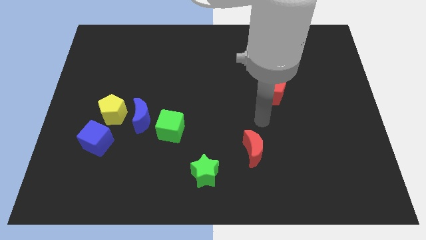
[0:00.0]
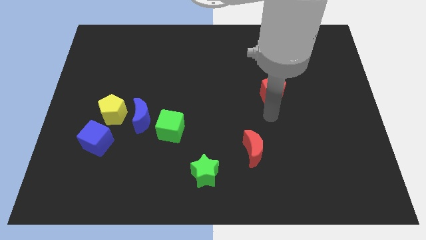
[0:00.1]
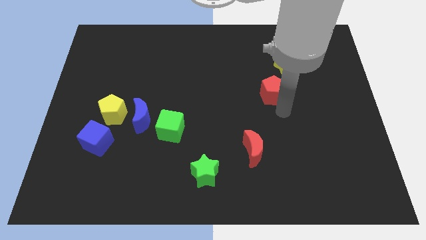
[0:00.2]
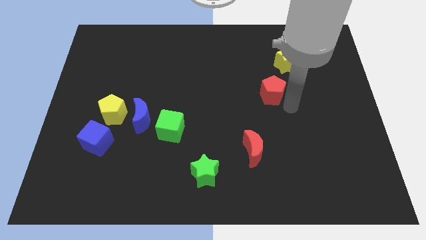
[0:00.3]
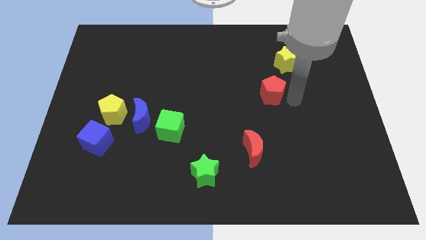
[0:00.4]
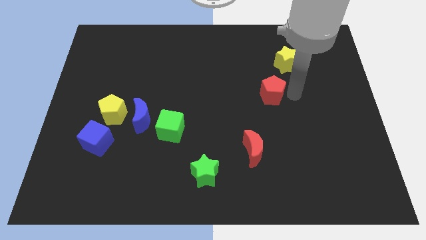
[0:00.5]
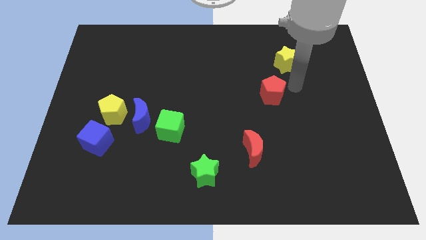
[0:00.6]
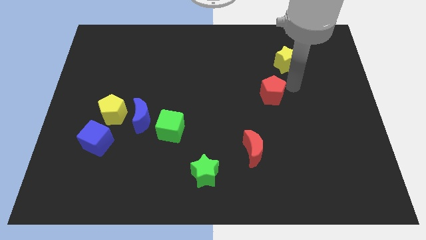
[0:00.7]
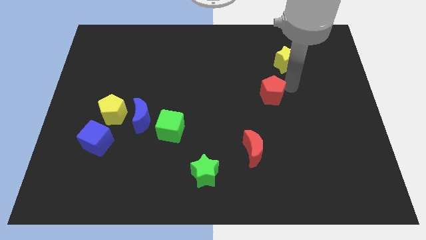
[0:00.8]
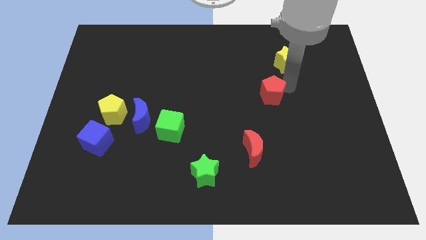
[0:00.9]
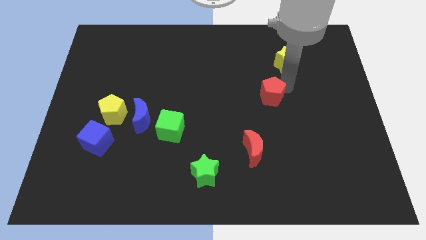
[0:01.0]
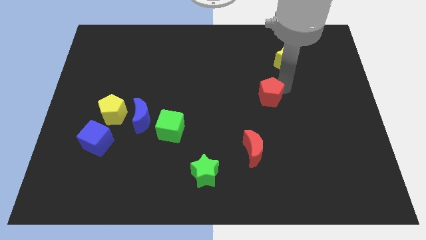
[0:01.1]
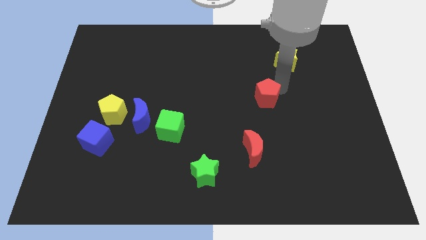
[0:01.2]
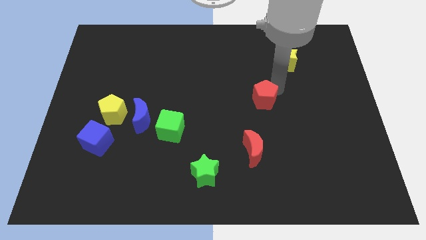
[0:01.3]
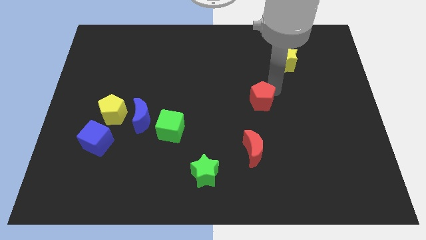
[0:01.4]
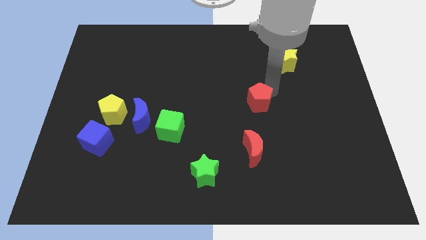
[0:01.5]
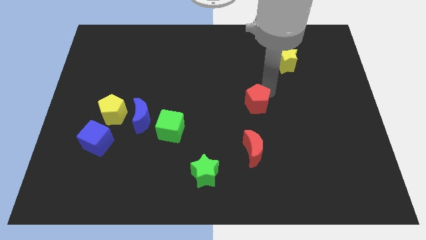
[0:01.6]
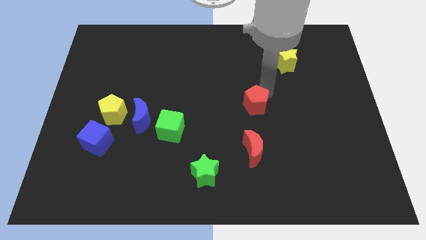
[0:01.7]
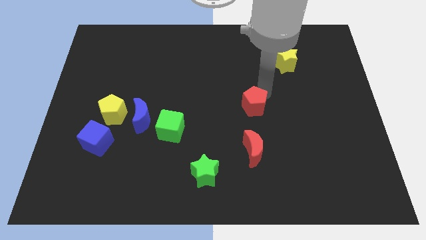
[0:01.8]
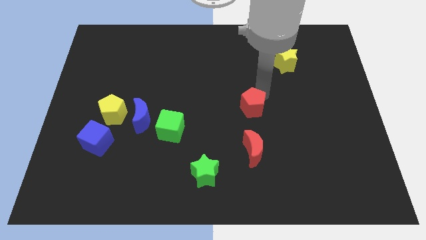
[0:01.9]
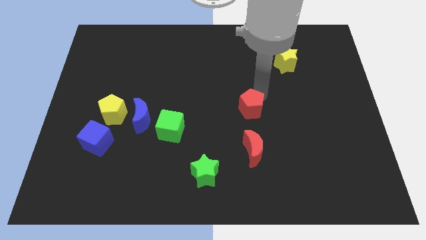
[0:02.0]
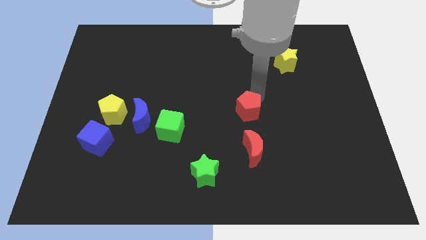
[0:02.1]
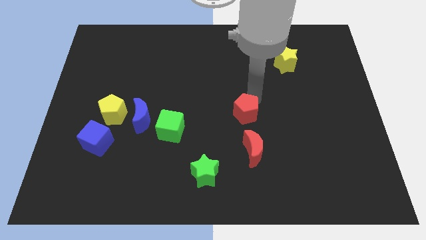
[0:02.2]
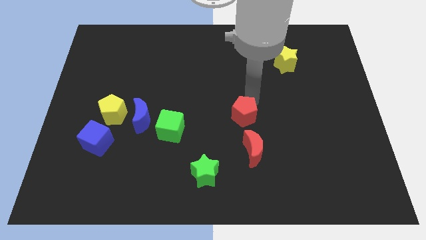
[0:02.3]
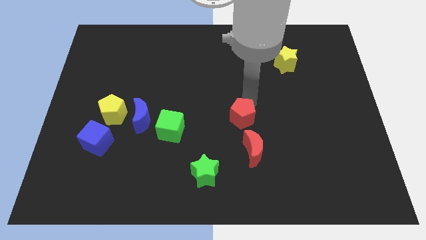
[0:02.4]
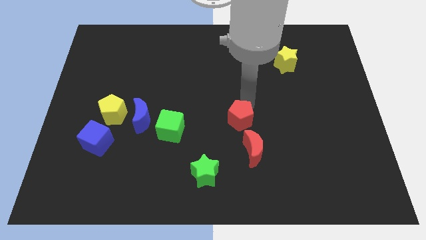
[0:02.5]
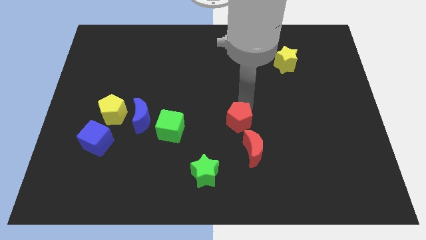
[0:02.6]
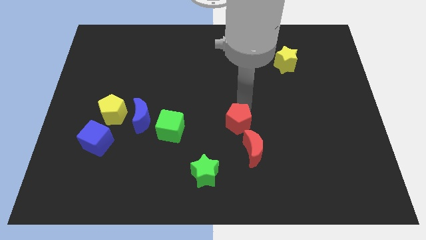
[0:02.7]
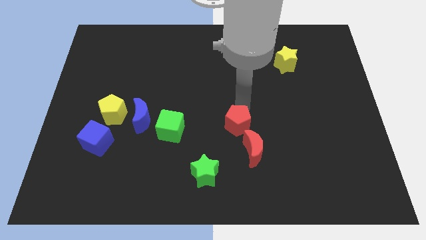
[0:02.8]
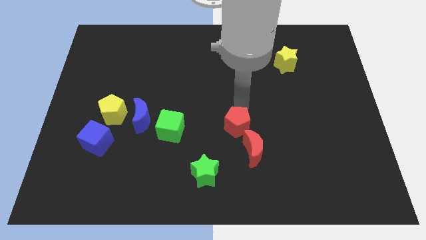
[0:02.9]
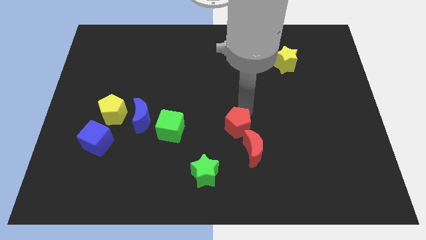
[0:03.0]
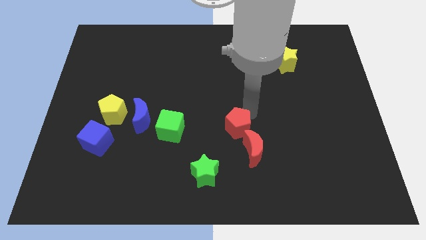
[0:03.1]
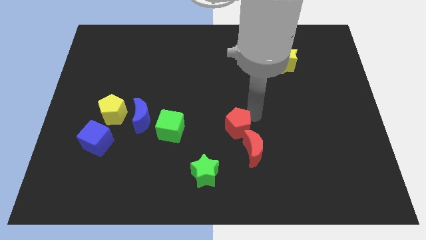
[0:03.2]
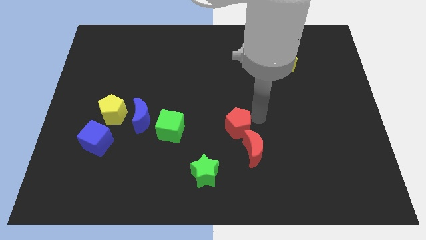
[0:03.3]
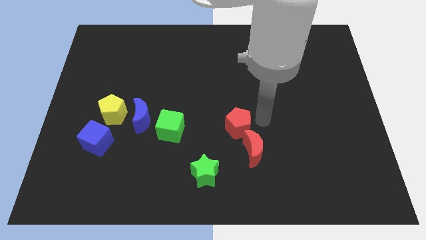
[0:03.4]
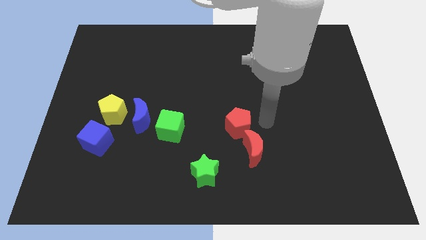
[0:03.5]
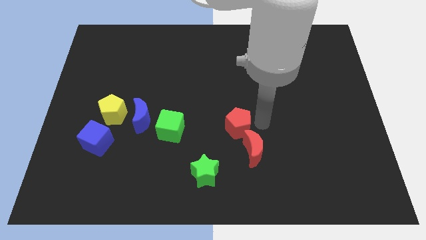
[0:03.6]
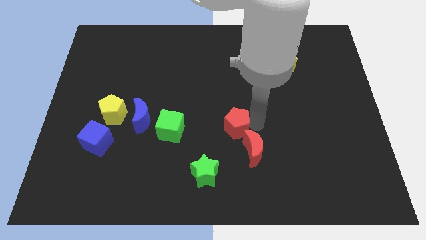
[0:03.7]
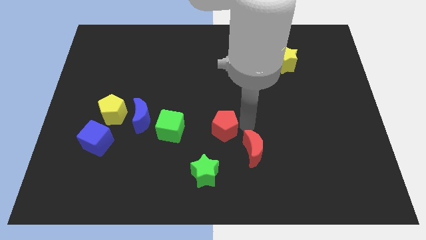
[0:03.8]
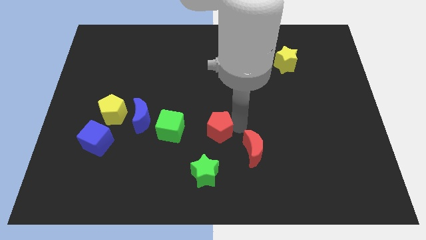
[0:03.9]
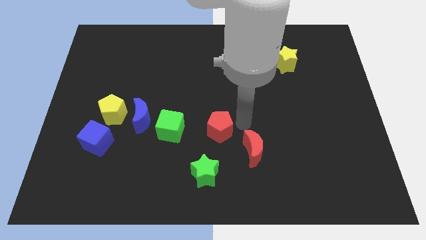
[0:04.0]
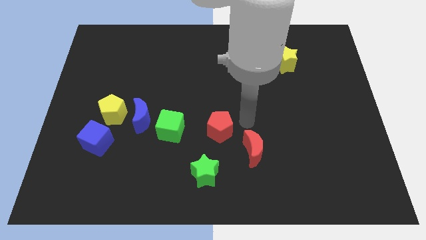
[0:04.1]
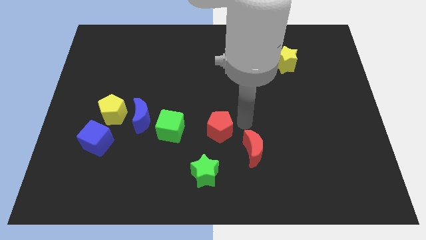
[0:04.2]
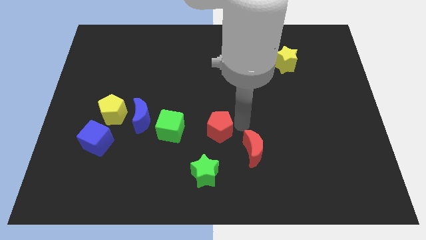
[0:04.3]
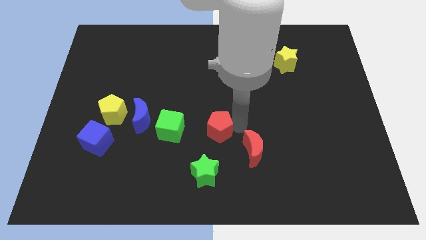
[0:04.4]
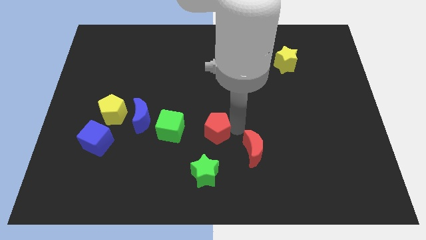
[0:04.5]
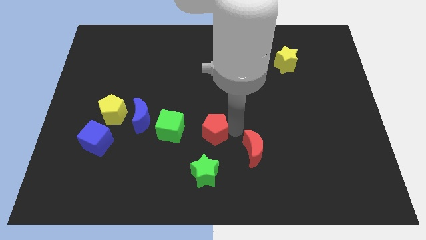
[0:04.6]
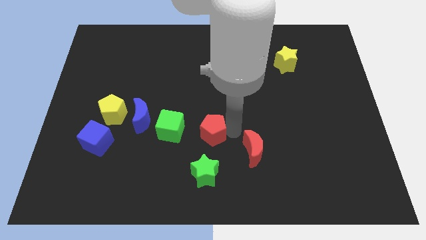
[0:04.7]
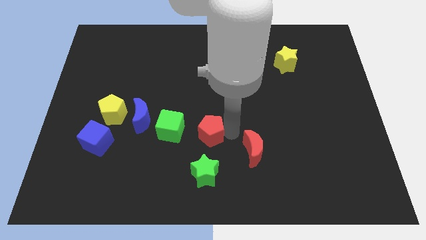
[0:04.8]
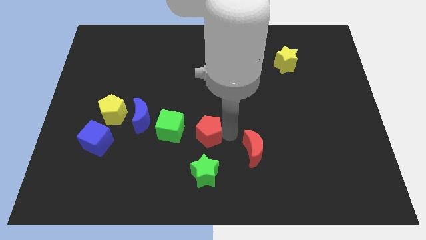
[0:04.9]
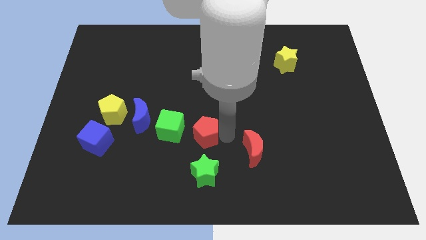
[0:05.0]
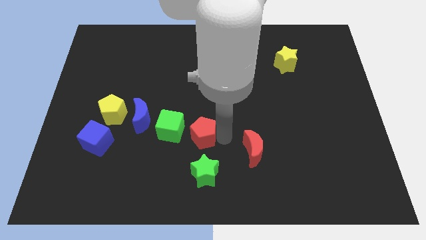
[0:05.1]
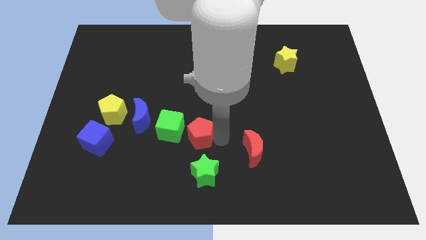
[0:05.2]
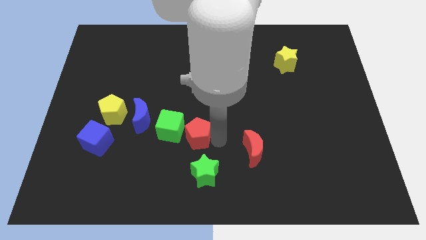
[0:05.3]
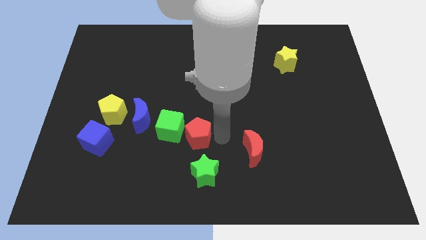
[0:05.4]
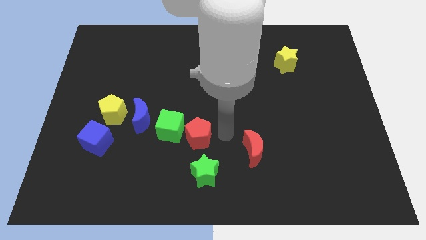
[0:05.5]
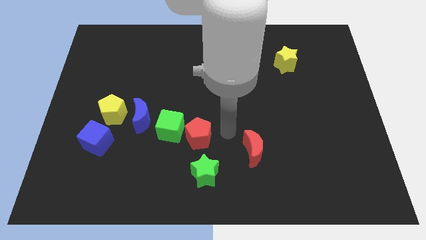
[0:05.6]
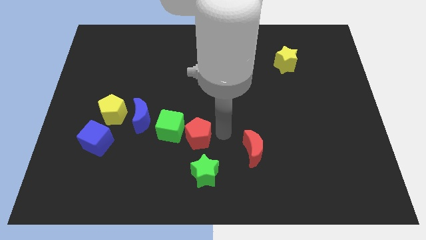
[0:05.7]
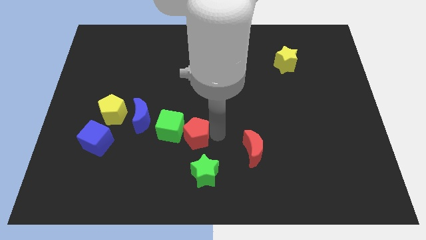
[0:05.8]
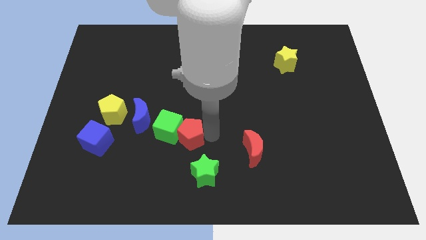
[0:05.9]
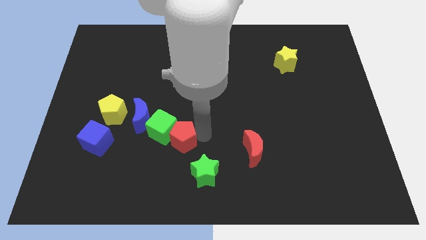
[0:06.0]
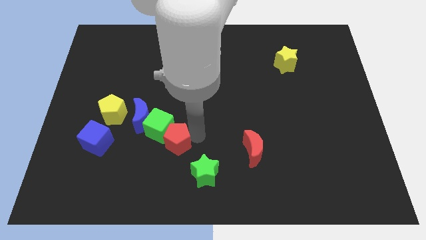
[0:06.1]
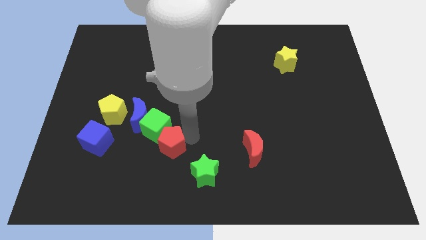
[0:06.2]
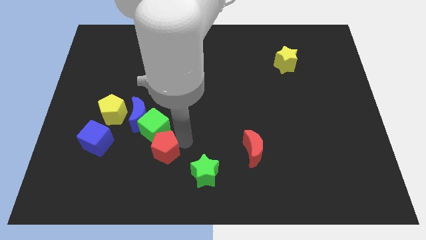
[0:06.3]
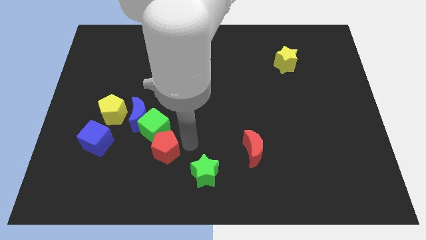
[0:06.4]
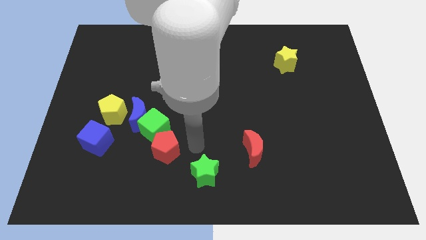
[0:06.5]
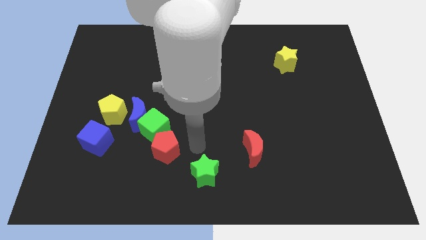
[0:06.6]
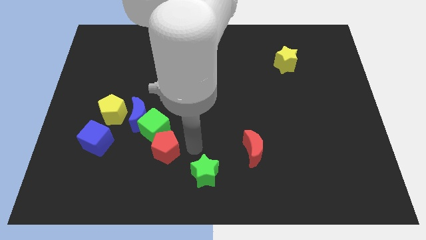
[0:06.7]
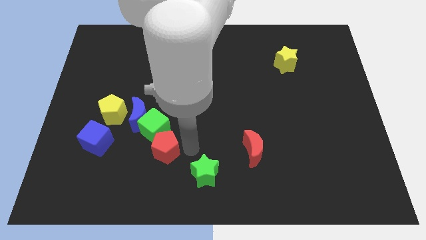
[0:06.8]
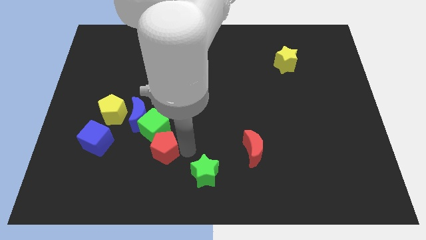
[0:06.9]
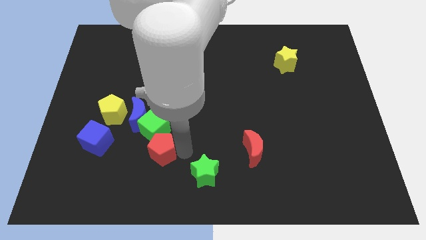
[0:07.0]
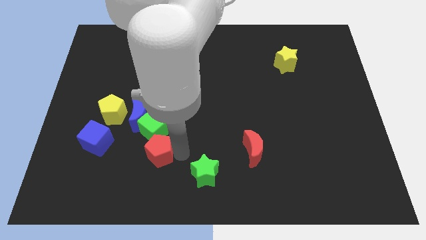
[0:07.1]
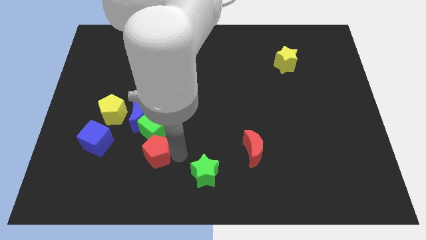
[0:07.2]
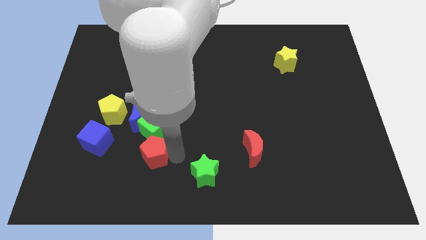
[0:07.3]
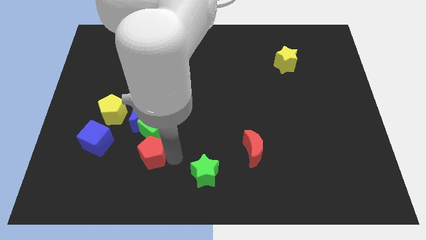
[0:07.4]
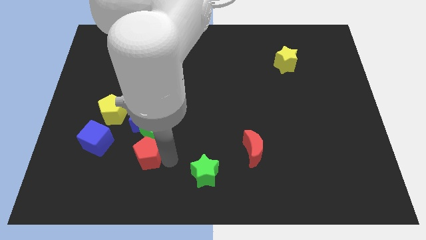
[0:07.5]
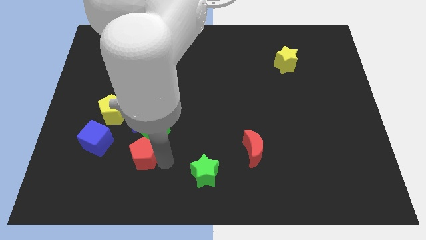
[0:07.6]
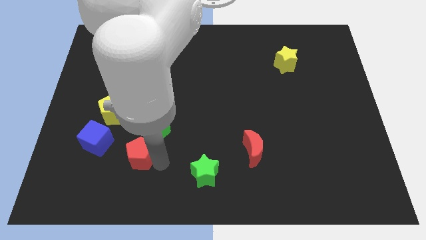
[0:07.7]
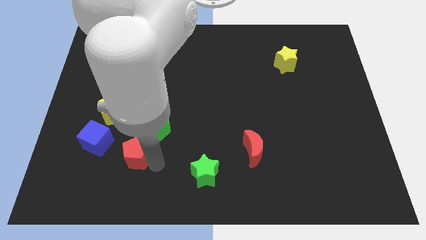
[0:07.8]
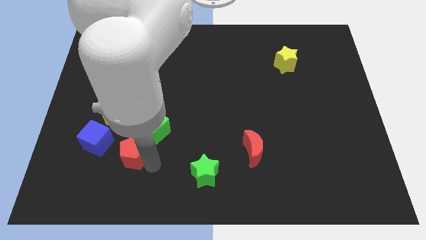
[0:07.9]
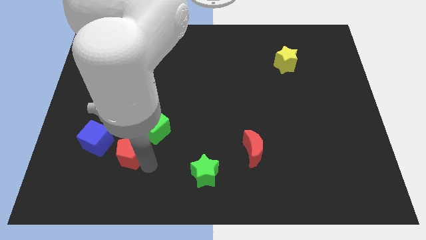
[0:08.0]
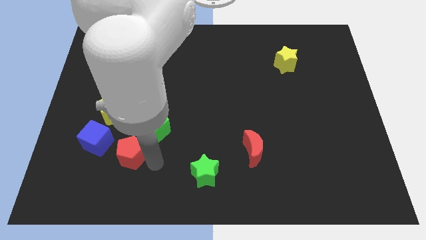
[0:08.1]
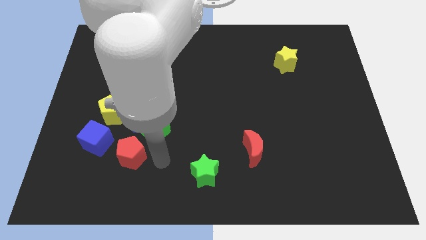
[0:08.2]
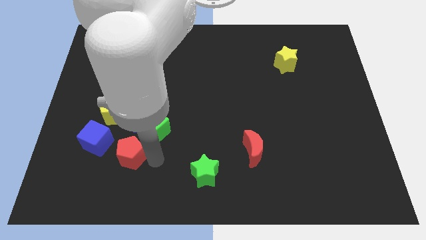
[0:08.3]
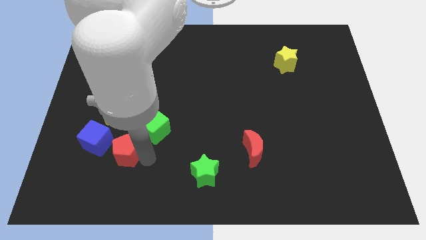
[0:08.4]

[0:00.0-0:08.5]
put the red pentagon to the bottom of the yellow pentagon
